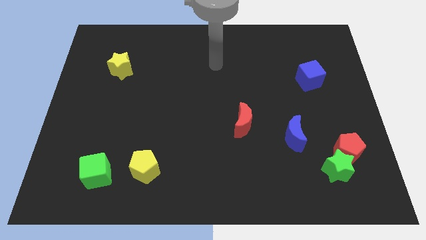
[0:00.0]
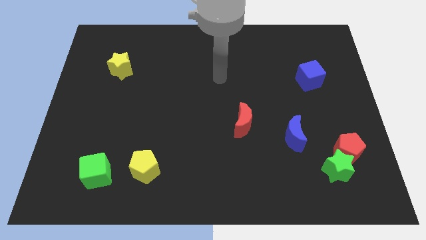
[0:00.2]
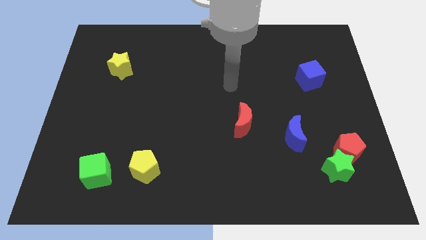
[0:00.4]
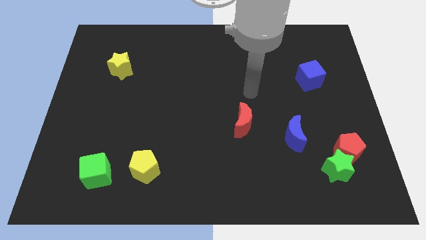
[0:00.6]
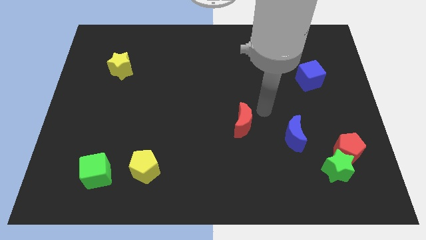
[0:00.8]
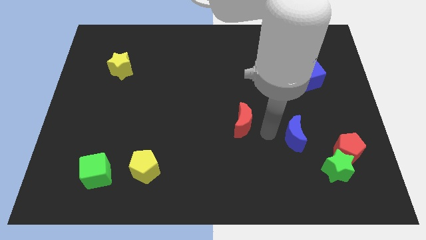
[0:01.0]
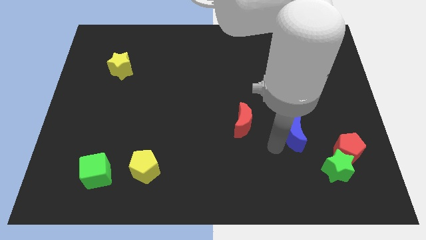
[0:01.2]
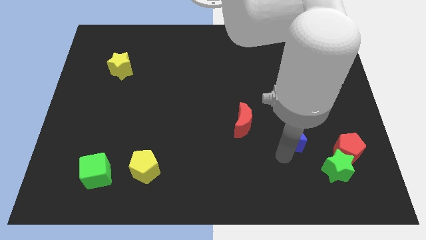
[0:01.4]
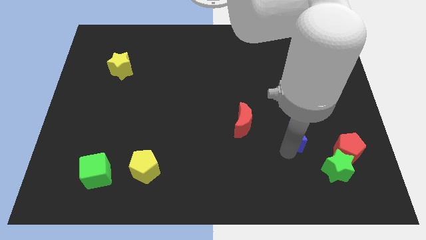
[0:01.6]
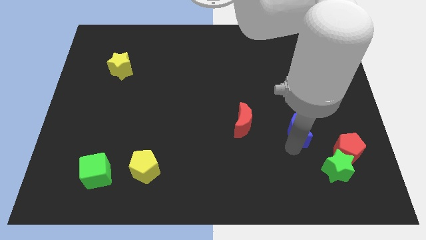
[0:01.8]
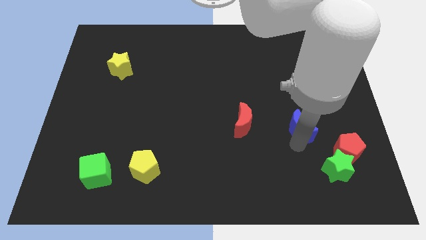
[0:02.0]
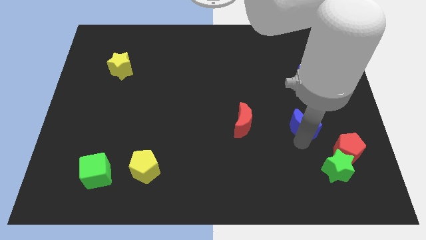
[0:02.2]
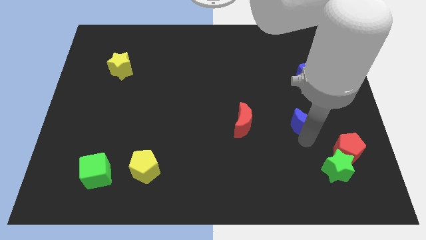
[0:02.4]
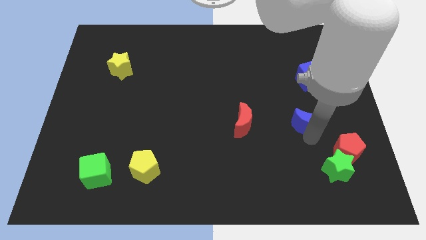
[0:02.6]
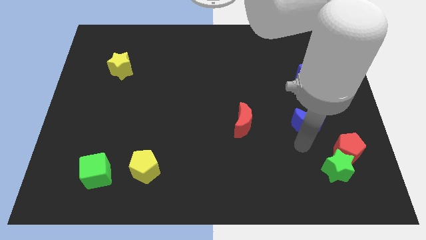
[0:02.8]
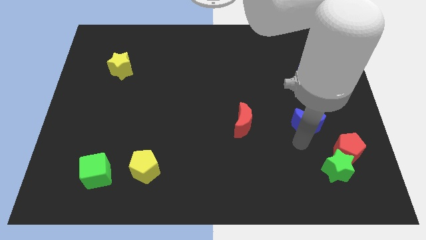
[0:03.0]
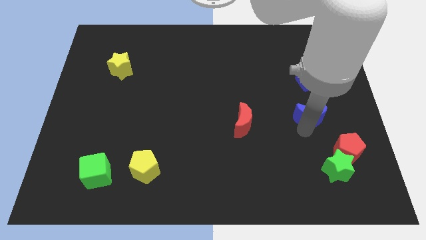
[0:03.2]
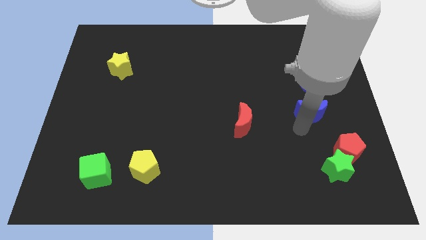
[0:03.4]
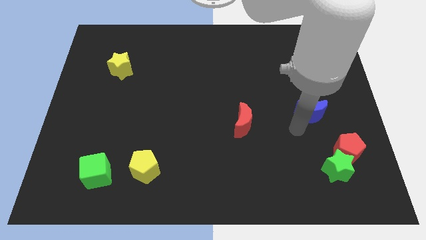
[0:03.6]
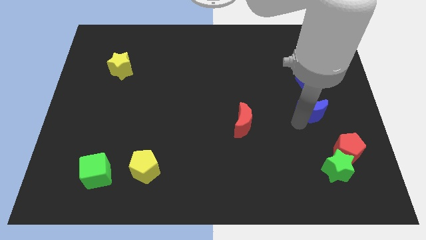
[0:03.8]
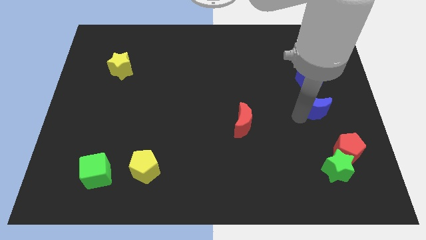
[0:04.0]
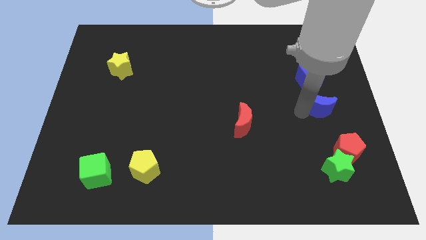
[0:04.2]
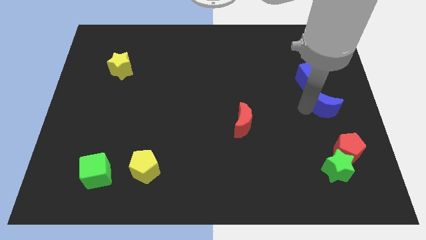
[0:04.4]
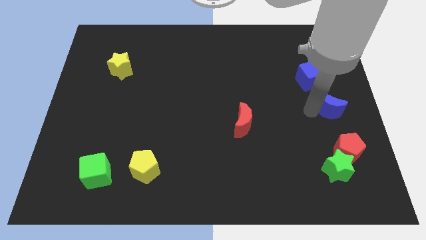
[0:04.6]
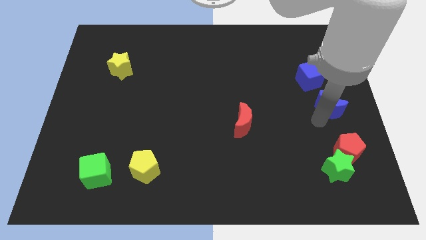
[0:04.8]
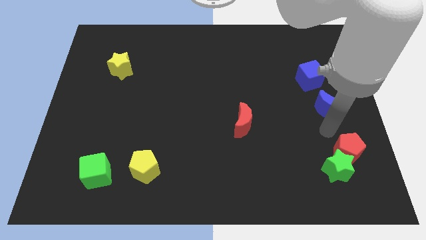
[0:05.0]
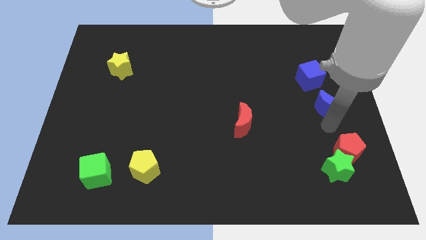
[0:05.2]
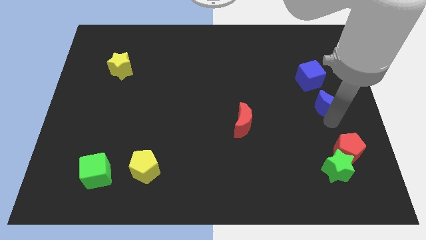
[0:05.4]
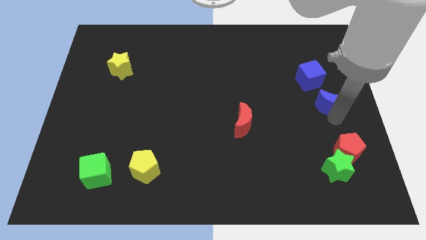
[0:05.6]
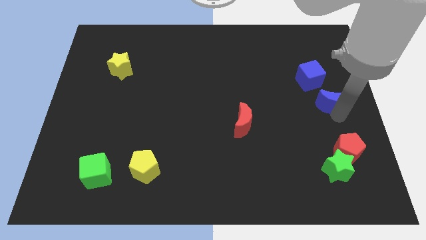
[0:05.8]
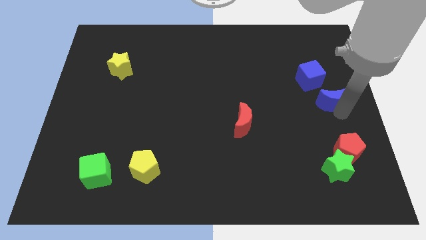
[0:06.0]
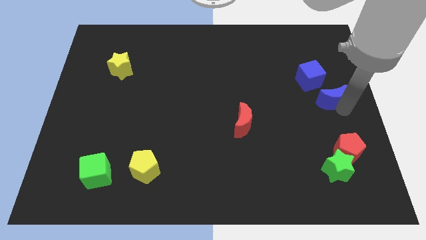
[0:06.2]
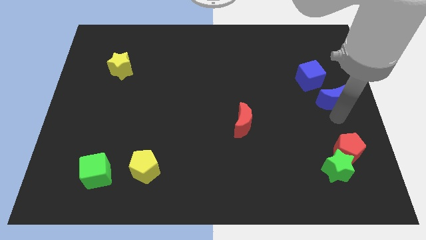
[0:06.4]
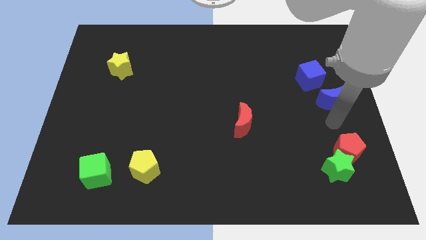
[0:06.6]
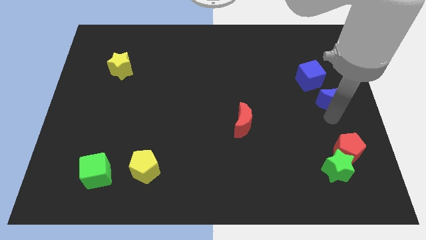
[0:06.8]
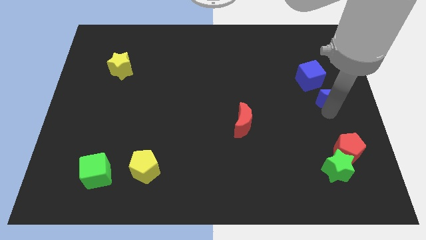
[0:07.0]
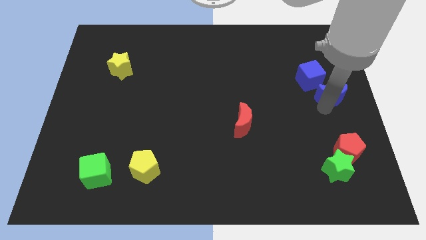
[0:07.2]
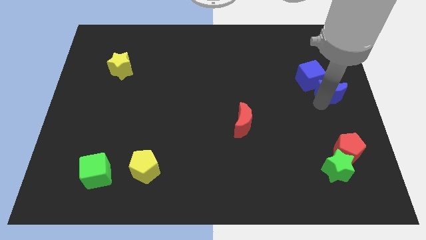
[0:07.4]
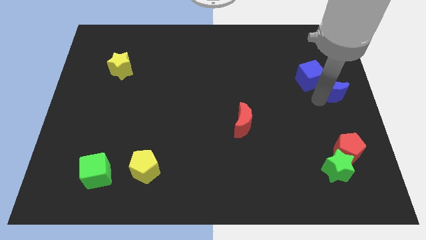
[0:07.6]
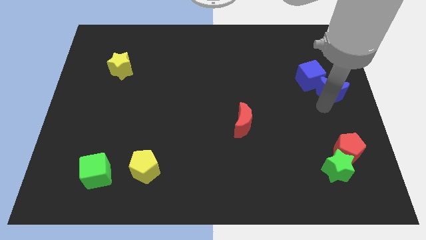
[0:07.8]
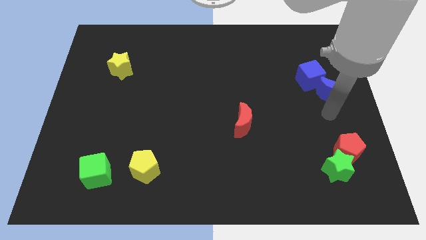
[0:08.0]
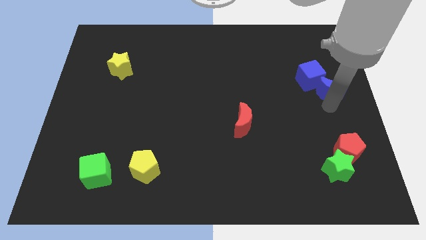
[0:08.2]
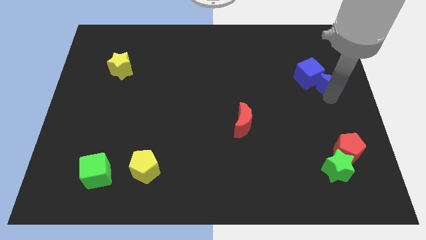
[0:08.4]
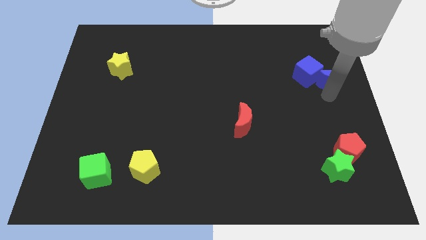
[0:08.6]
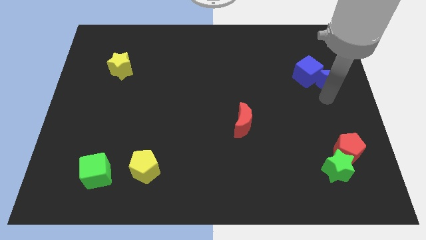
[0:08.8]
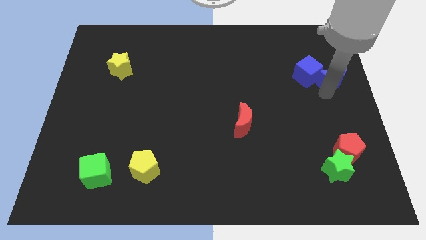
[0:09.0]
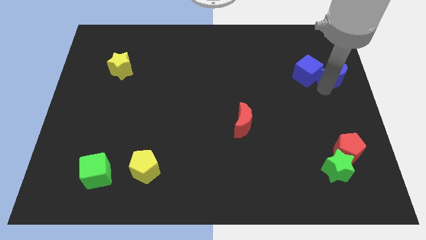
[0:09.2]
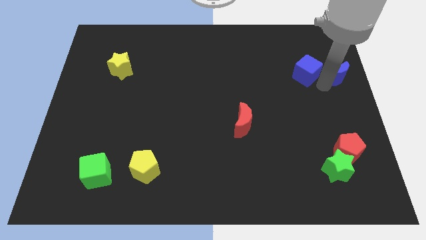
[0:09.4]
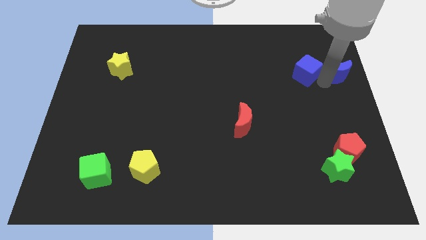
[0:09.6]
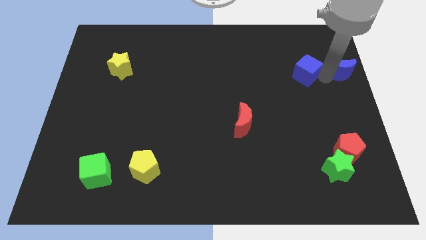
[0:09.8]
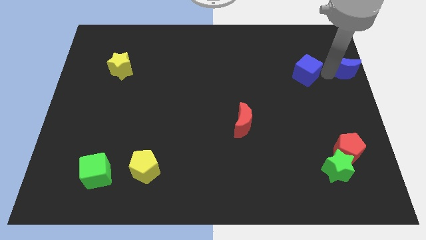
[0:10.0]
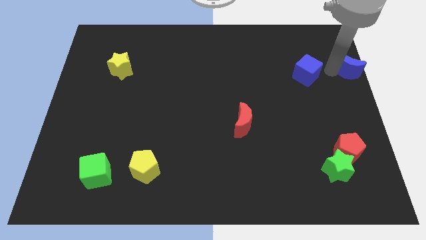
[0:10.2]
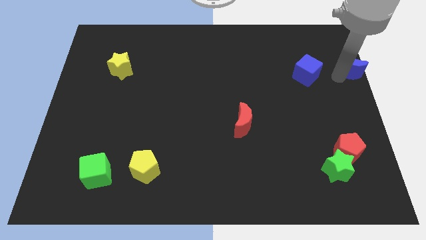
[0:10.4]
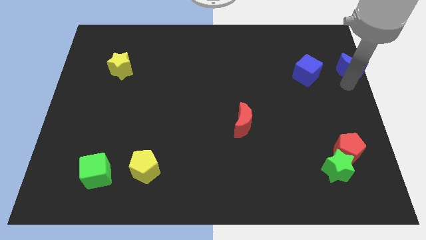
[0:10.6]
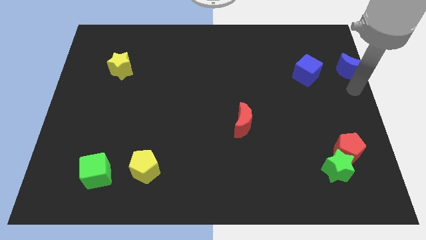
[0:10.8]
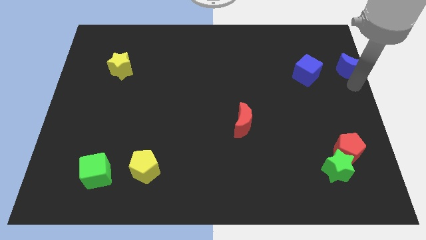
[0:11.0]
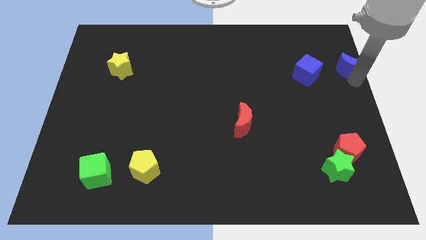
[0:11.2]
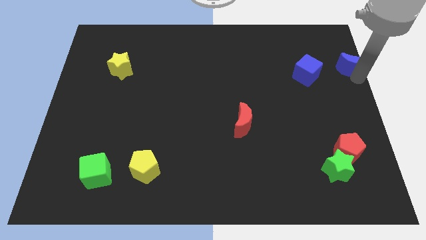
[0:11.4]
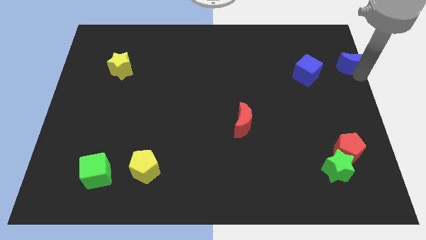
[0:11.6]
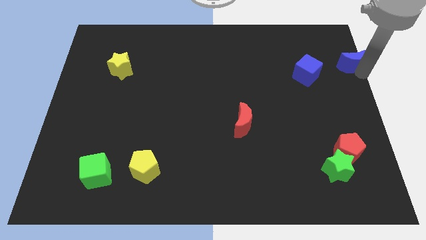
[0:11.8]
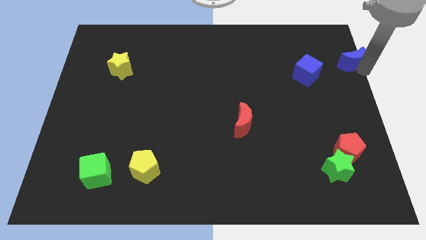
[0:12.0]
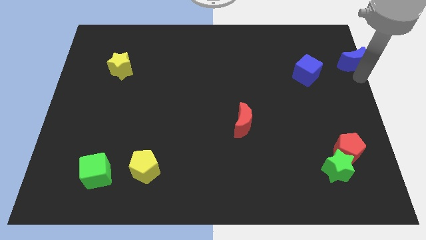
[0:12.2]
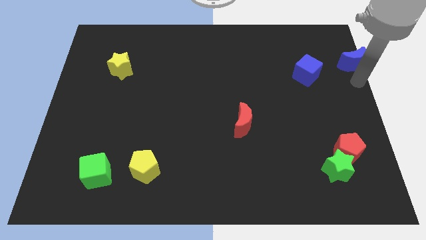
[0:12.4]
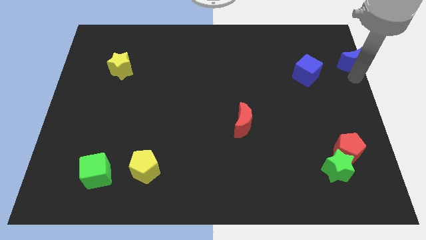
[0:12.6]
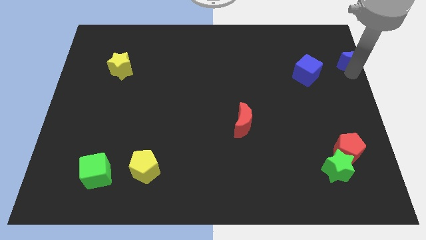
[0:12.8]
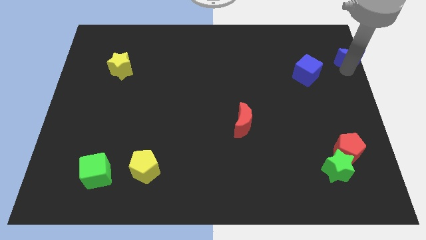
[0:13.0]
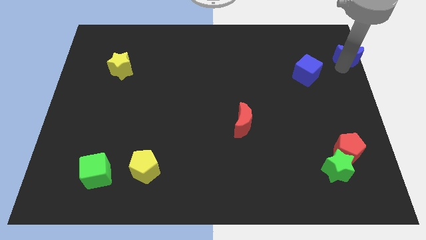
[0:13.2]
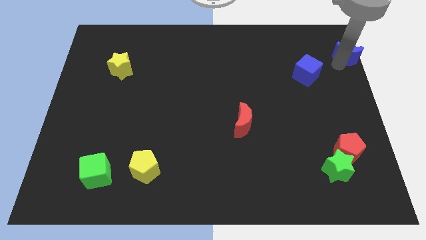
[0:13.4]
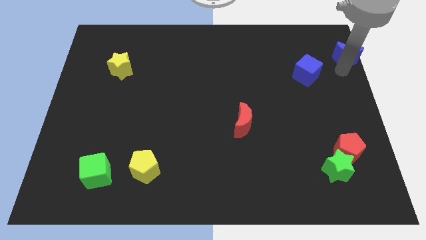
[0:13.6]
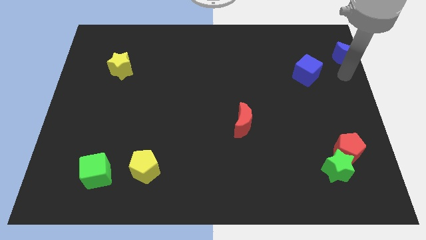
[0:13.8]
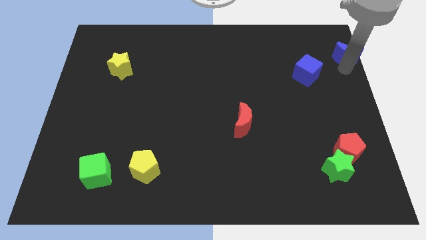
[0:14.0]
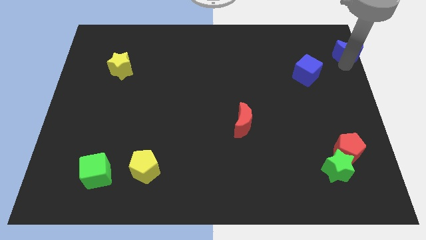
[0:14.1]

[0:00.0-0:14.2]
move the blue moon to the top right

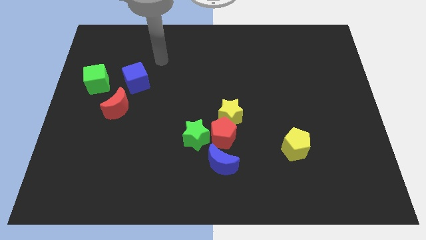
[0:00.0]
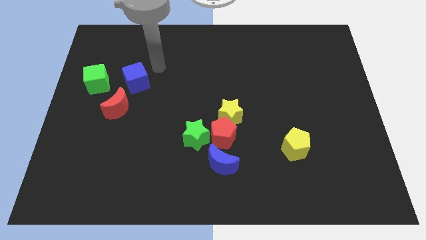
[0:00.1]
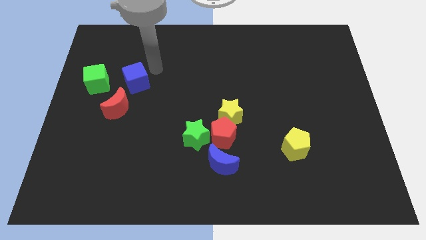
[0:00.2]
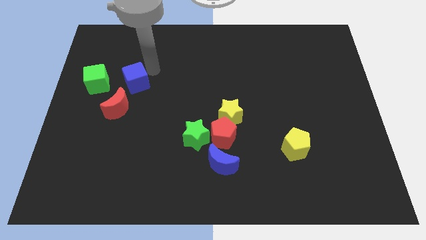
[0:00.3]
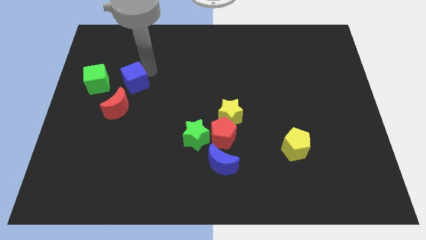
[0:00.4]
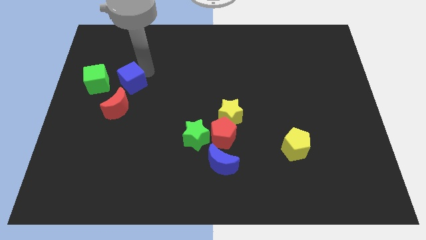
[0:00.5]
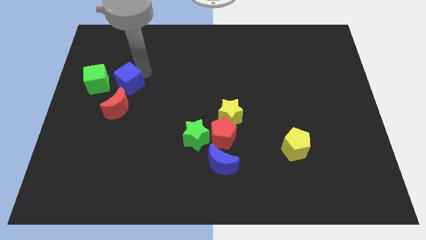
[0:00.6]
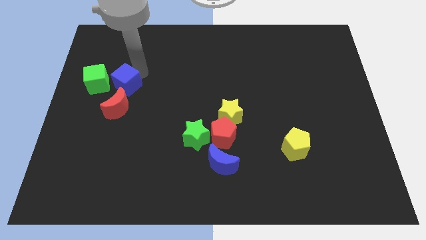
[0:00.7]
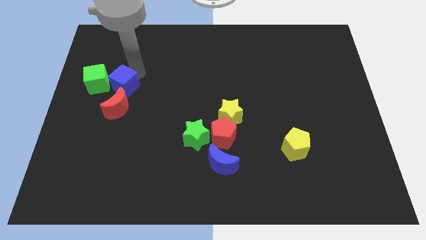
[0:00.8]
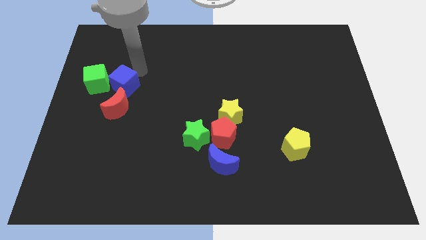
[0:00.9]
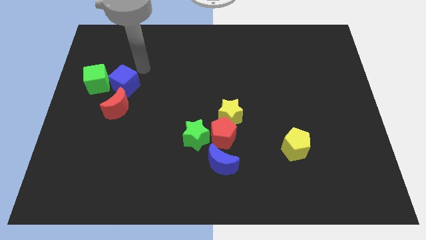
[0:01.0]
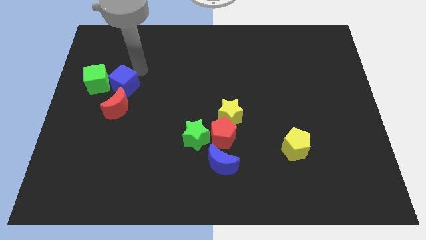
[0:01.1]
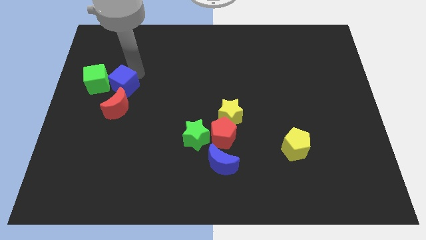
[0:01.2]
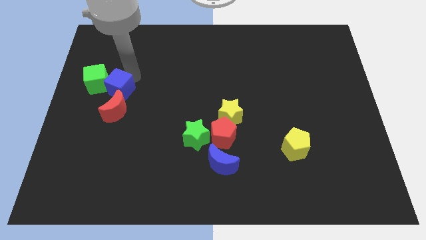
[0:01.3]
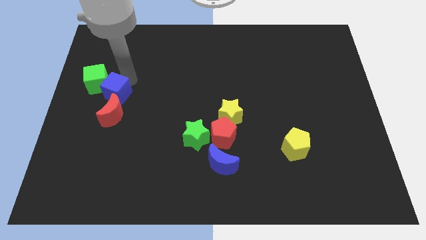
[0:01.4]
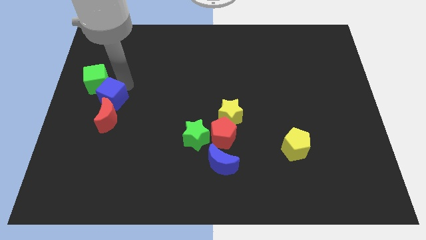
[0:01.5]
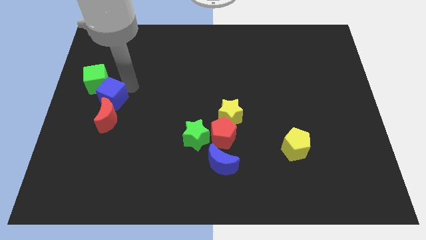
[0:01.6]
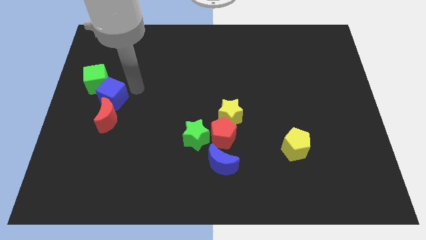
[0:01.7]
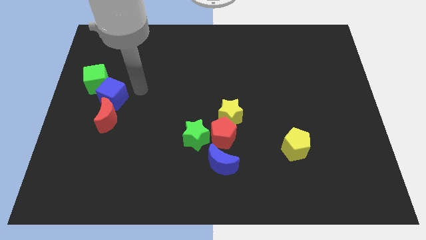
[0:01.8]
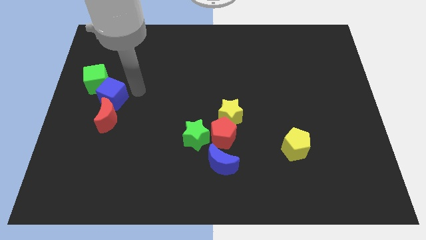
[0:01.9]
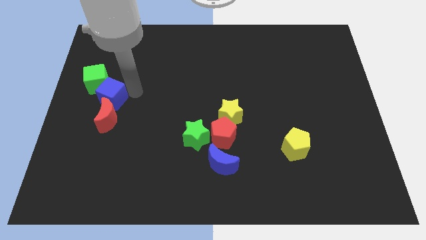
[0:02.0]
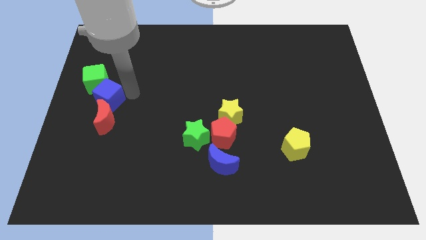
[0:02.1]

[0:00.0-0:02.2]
slide the blue cube to the center left
